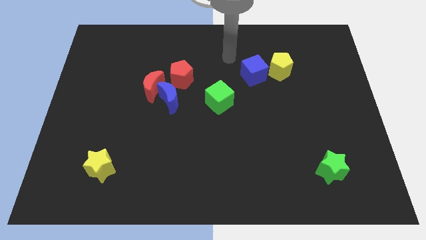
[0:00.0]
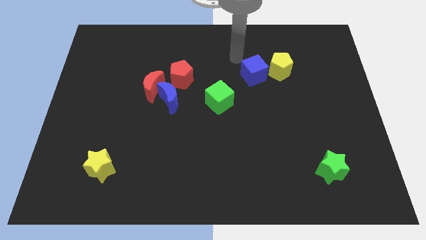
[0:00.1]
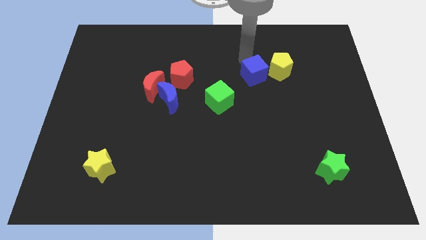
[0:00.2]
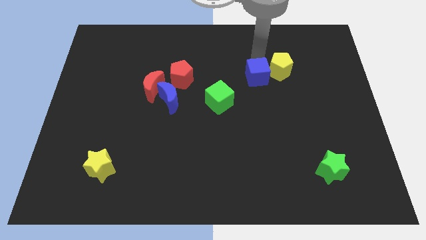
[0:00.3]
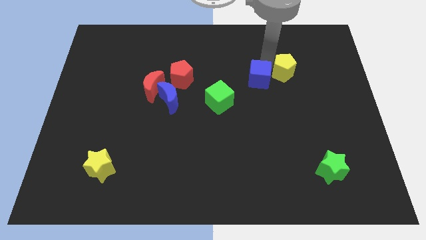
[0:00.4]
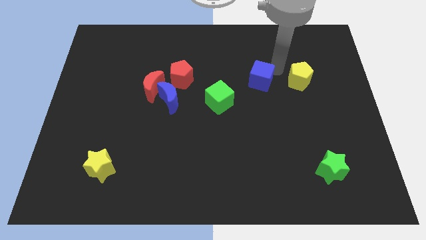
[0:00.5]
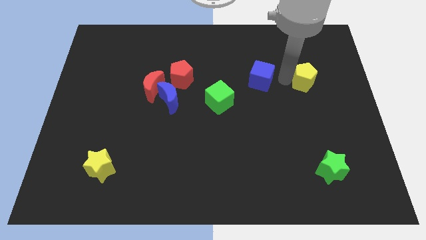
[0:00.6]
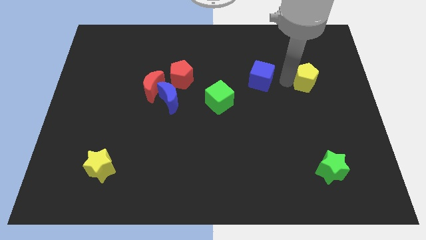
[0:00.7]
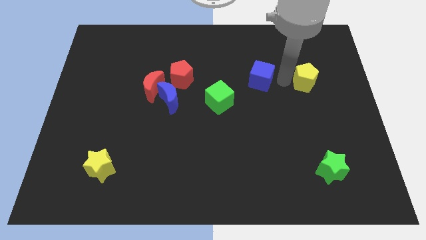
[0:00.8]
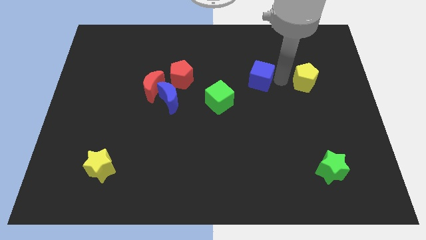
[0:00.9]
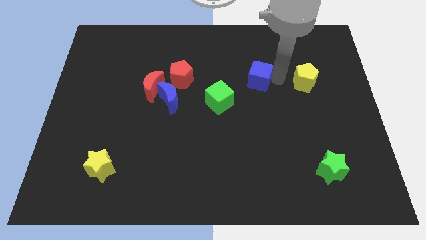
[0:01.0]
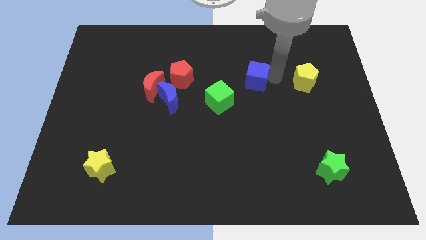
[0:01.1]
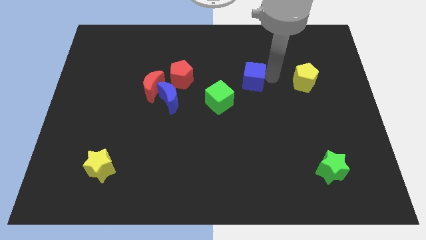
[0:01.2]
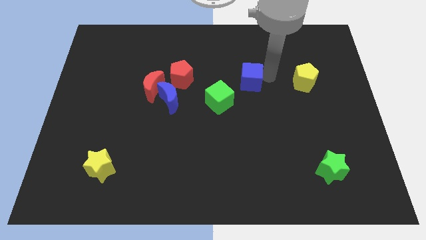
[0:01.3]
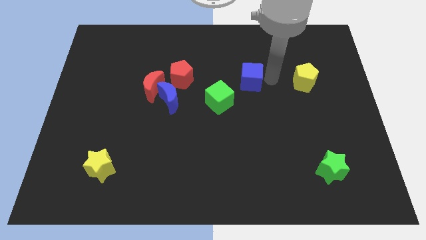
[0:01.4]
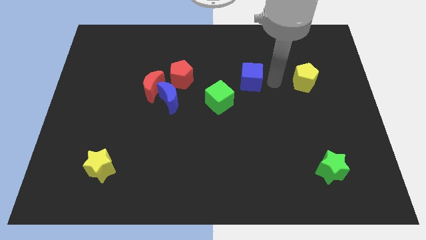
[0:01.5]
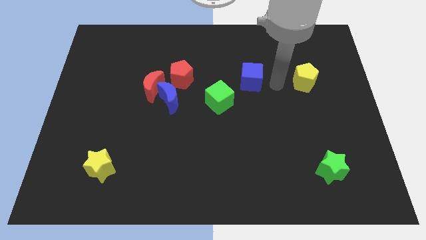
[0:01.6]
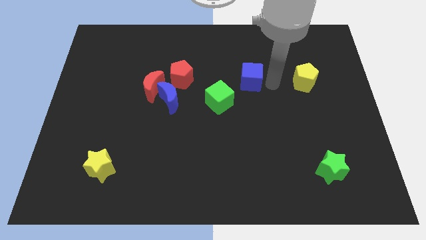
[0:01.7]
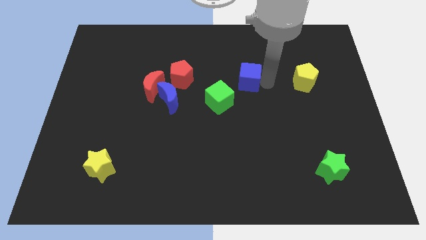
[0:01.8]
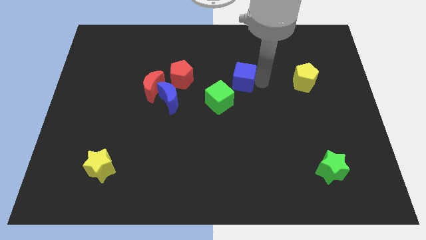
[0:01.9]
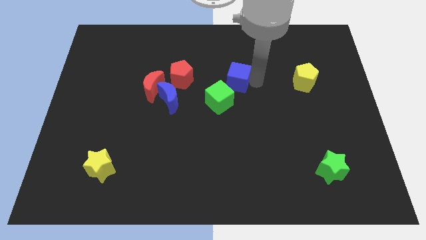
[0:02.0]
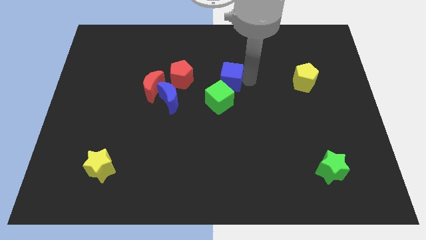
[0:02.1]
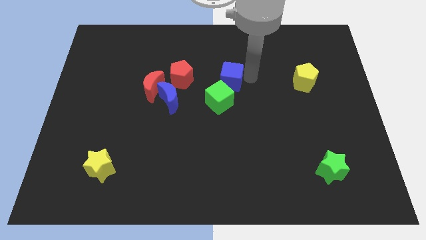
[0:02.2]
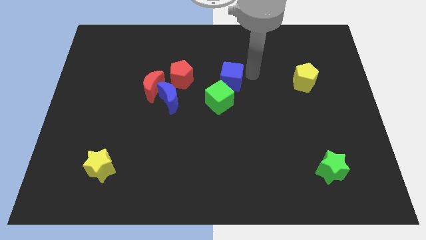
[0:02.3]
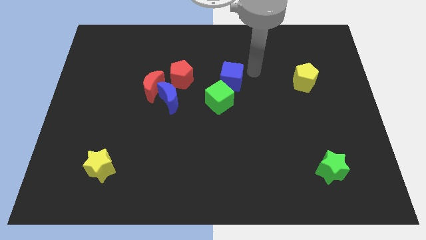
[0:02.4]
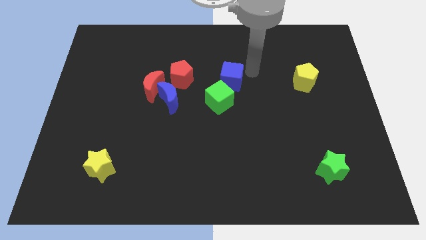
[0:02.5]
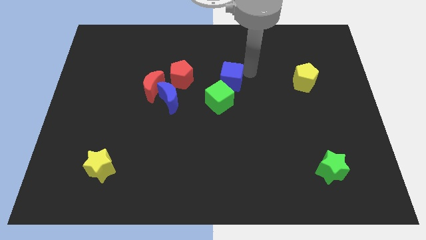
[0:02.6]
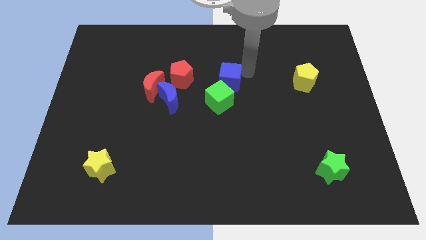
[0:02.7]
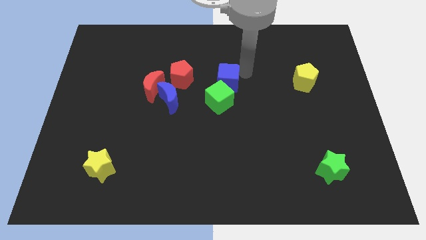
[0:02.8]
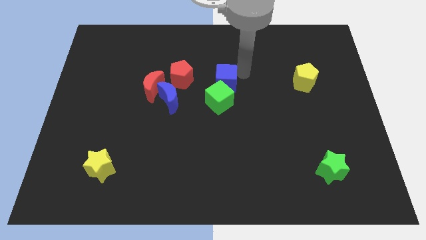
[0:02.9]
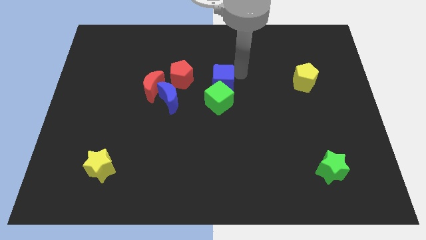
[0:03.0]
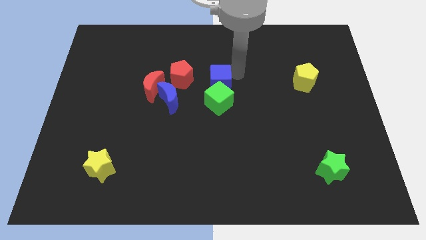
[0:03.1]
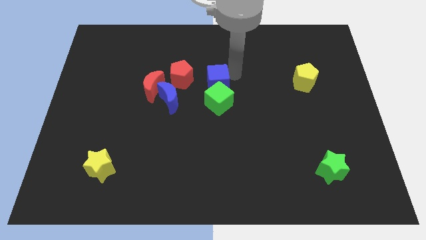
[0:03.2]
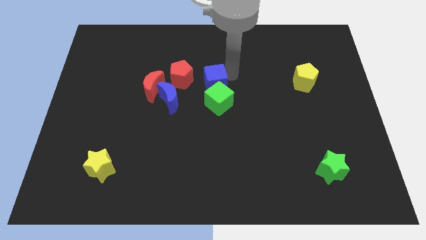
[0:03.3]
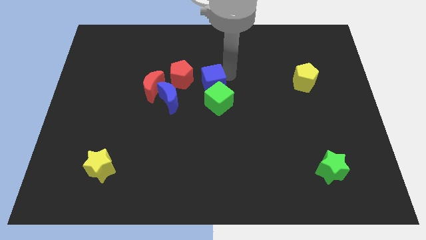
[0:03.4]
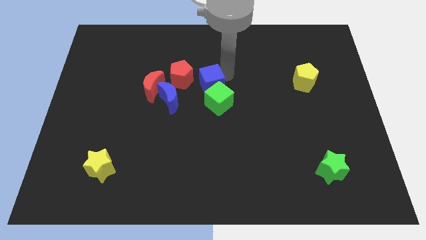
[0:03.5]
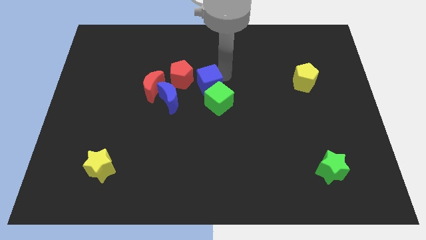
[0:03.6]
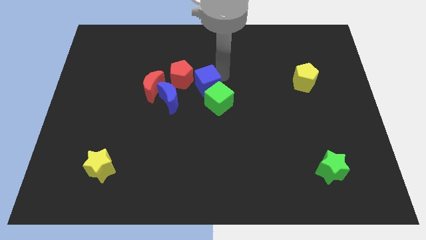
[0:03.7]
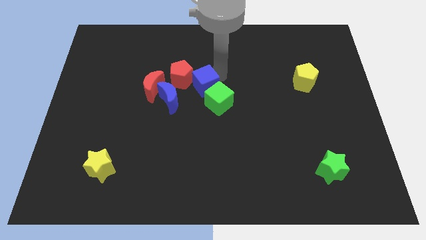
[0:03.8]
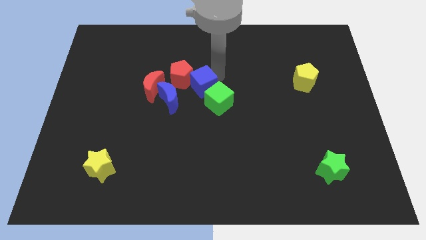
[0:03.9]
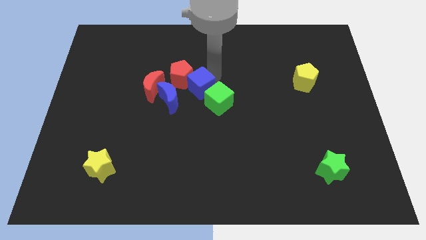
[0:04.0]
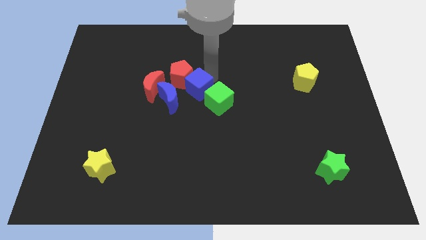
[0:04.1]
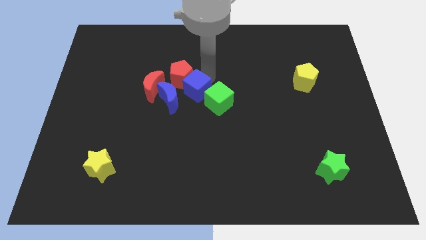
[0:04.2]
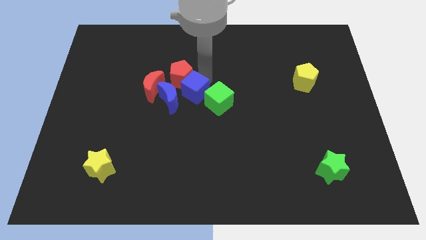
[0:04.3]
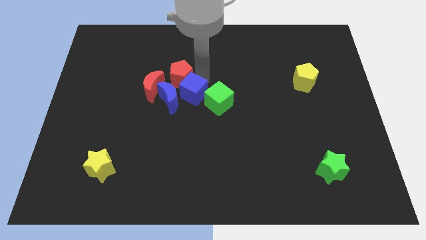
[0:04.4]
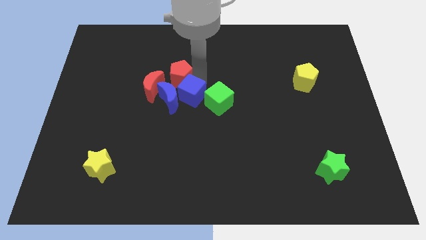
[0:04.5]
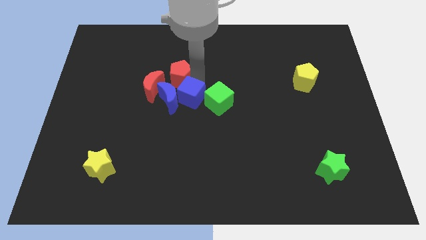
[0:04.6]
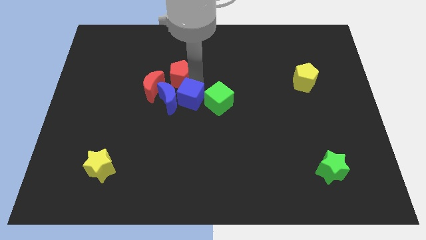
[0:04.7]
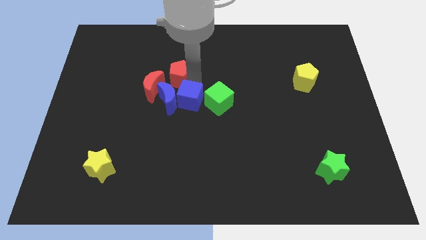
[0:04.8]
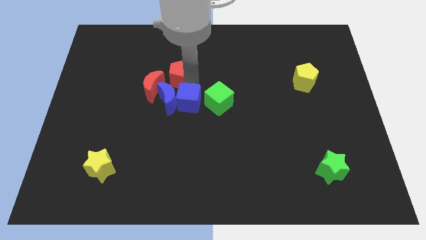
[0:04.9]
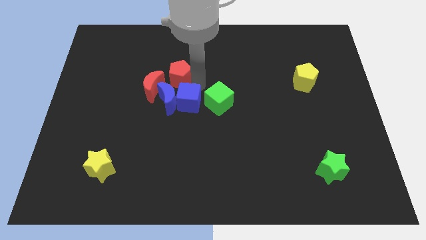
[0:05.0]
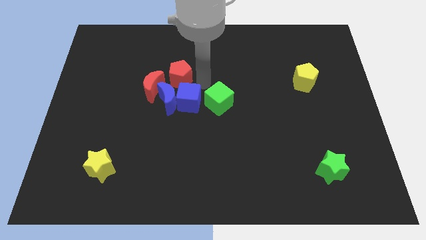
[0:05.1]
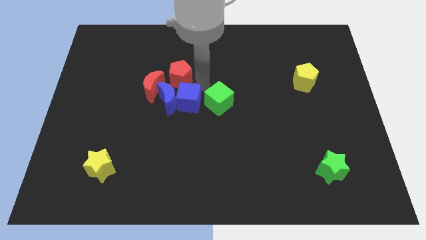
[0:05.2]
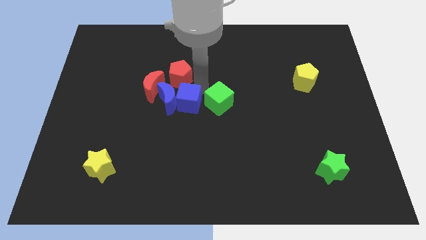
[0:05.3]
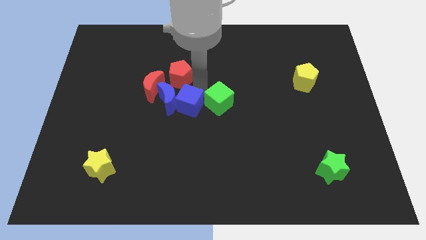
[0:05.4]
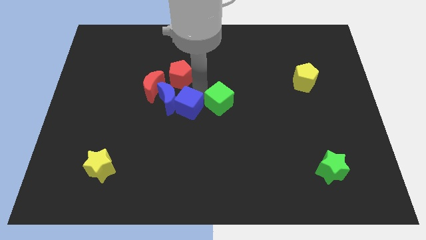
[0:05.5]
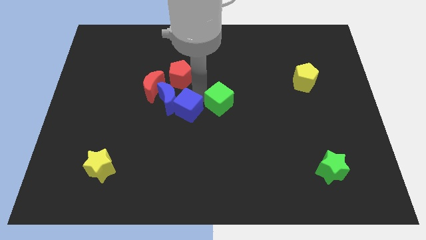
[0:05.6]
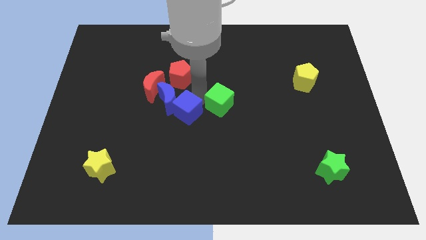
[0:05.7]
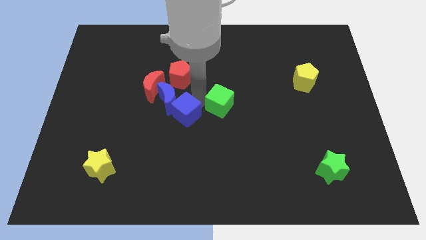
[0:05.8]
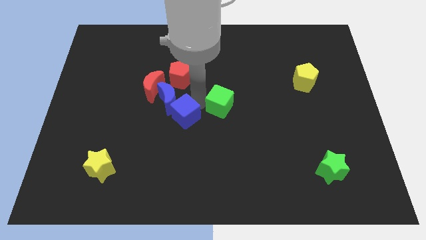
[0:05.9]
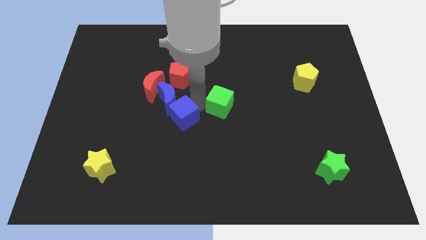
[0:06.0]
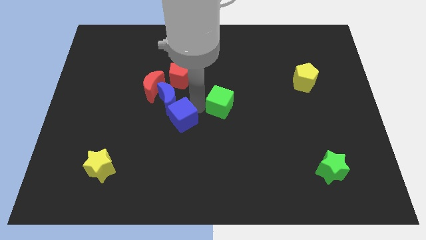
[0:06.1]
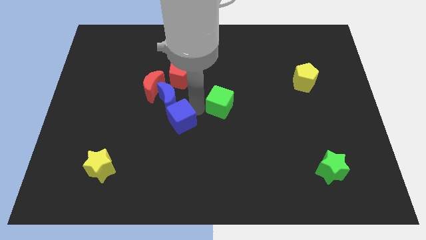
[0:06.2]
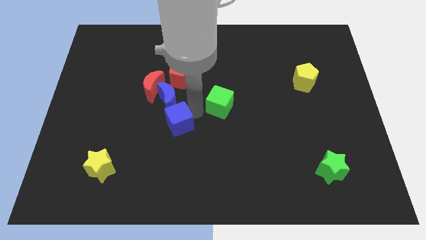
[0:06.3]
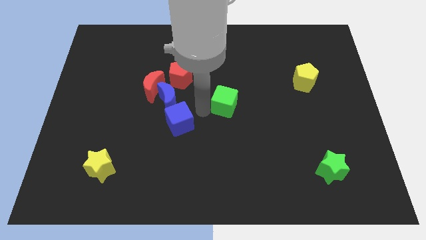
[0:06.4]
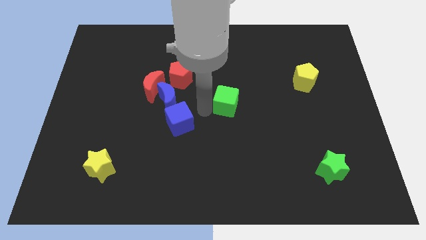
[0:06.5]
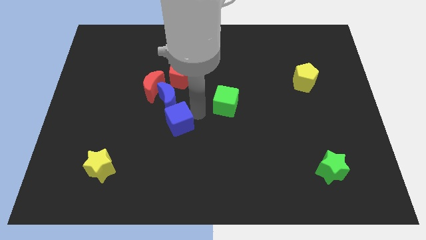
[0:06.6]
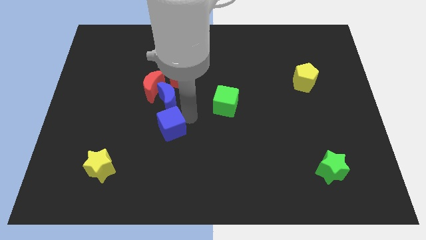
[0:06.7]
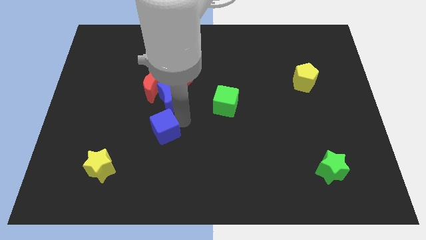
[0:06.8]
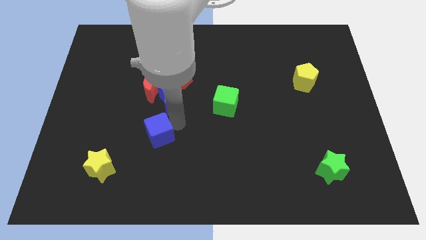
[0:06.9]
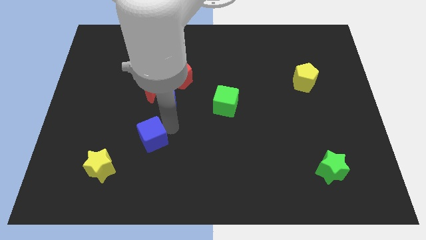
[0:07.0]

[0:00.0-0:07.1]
slide the blue cube to the top right side of the yellow star

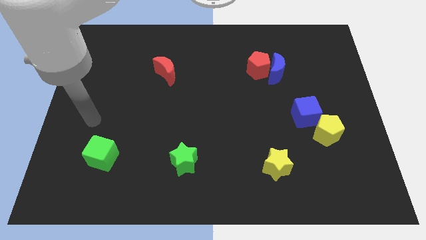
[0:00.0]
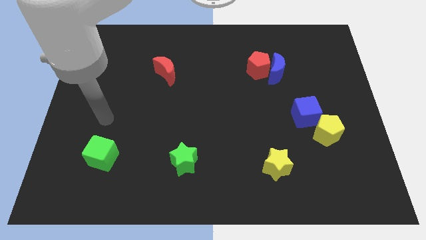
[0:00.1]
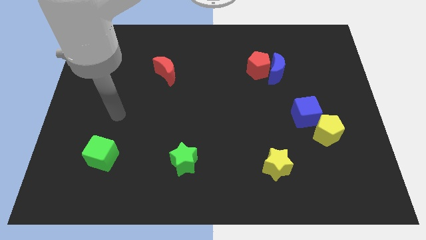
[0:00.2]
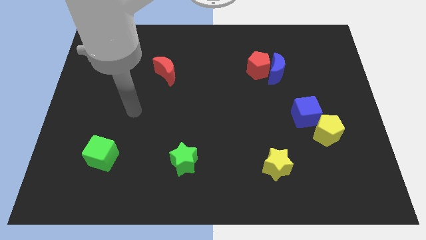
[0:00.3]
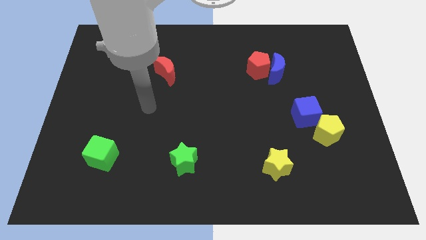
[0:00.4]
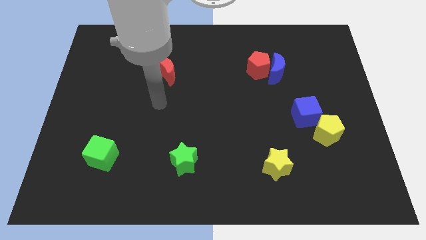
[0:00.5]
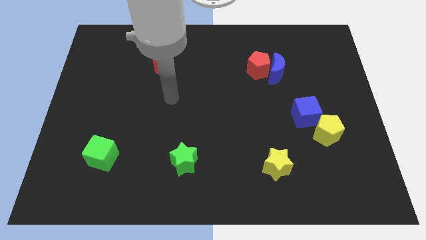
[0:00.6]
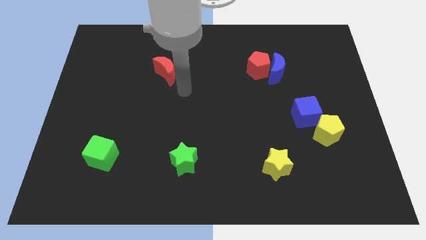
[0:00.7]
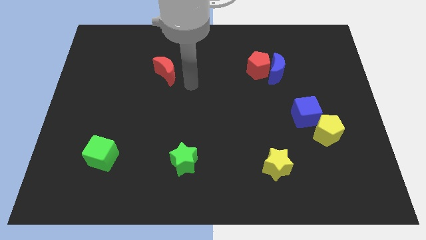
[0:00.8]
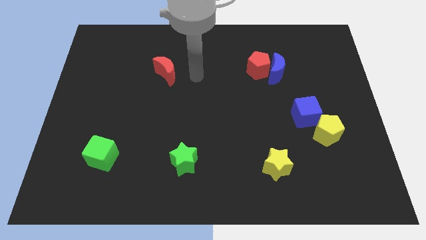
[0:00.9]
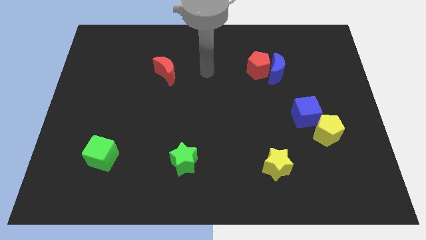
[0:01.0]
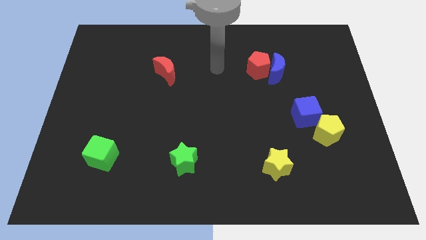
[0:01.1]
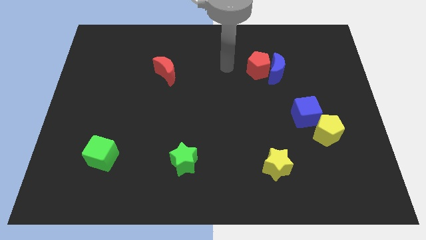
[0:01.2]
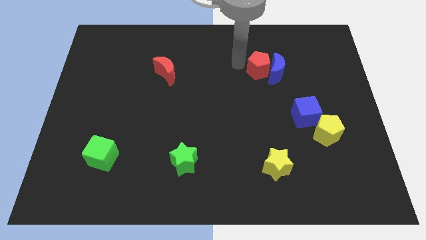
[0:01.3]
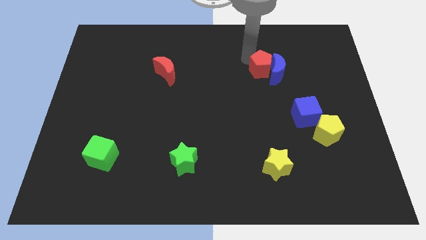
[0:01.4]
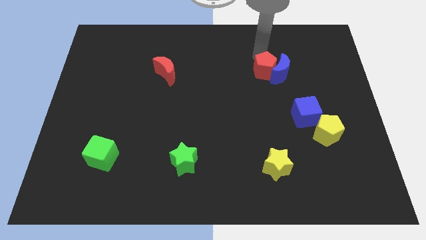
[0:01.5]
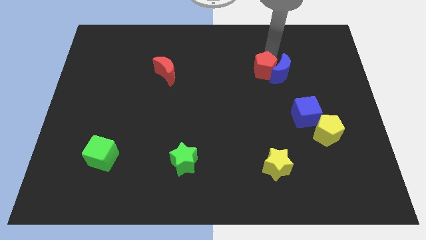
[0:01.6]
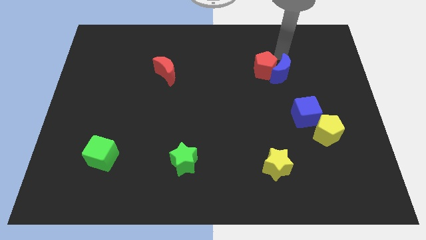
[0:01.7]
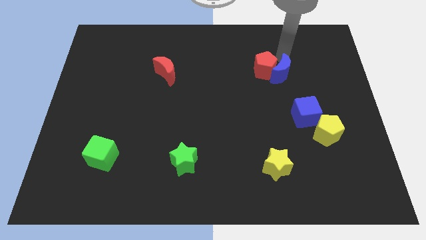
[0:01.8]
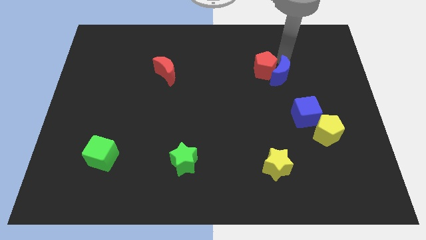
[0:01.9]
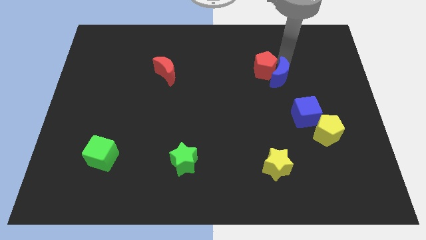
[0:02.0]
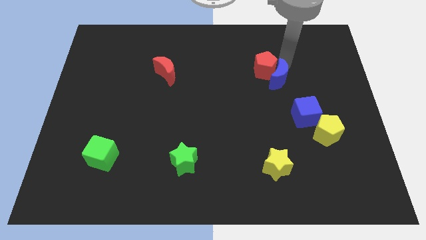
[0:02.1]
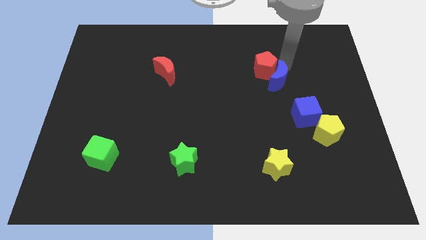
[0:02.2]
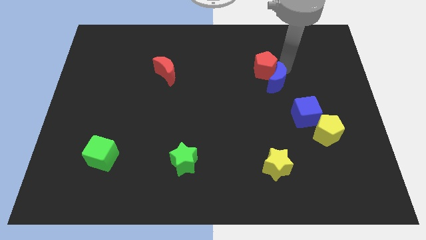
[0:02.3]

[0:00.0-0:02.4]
push the blue moon to the top left side of the blue cube
